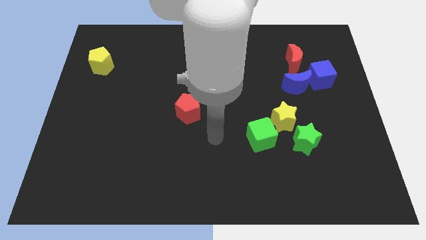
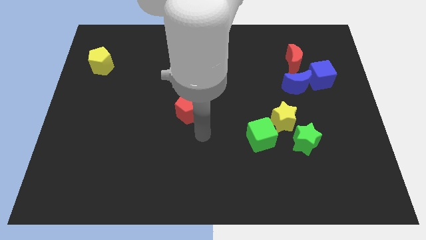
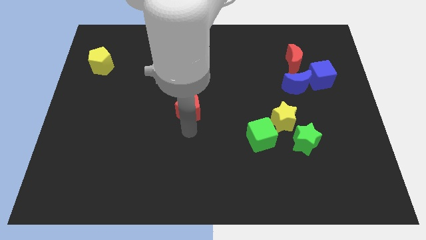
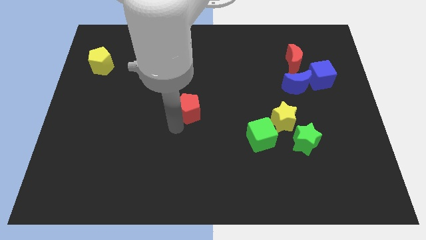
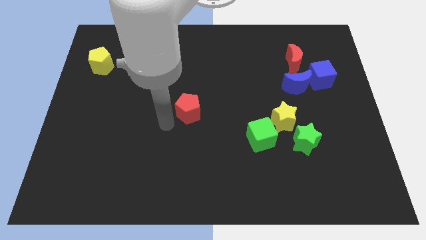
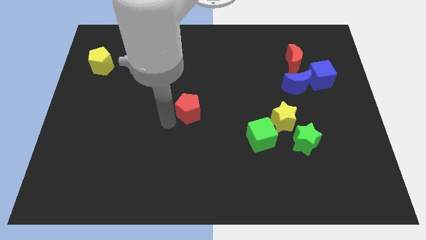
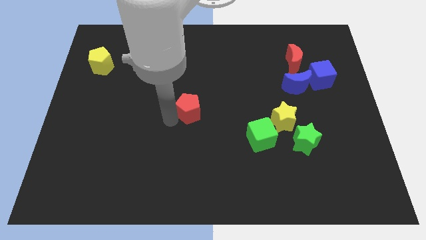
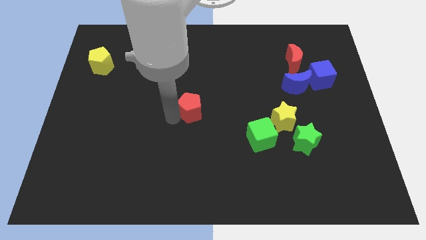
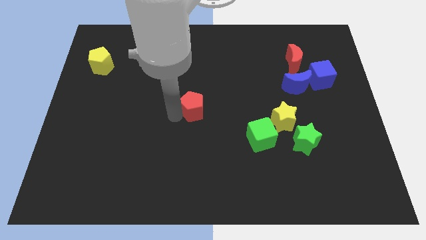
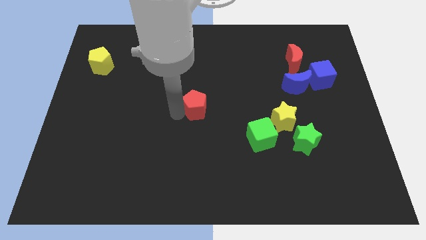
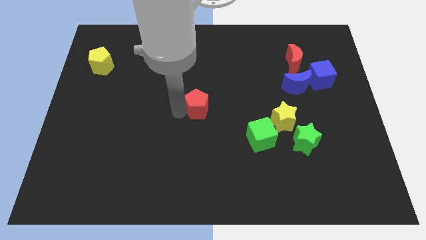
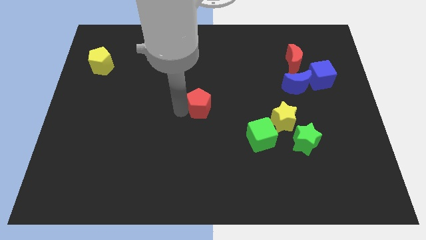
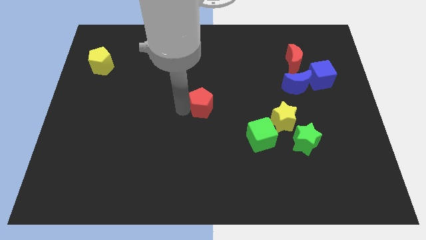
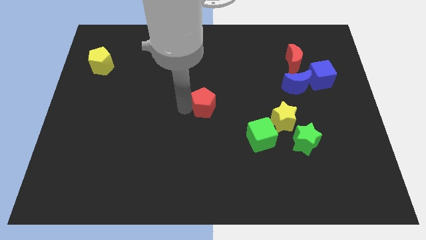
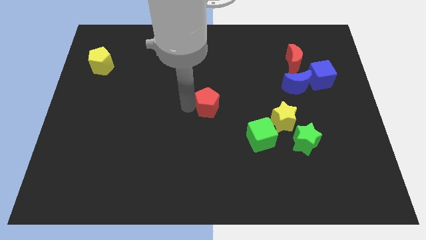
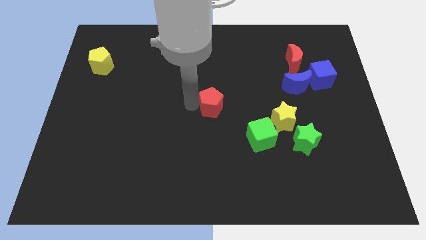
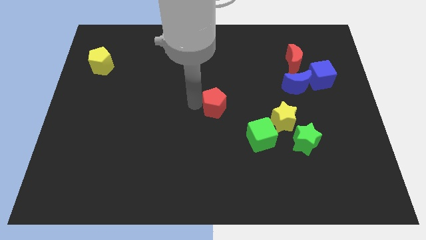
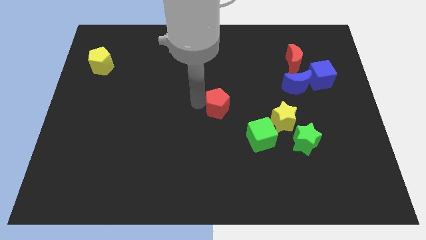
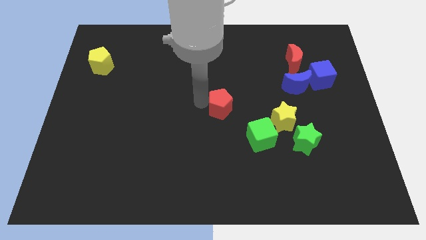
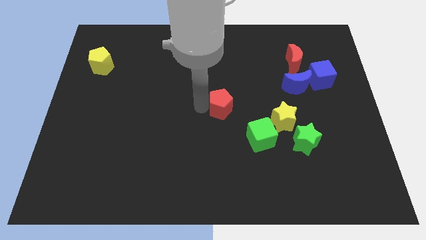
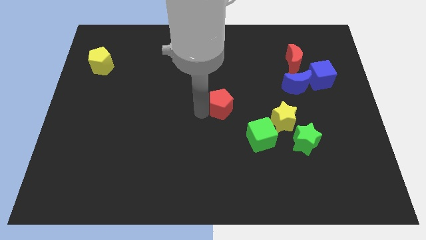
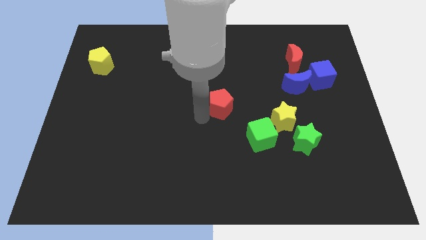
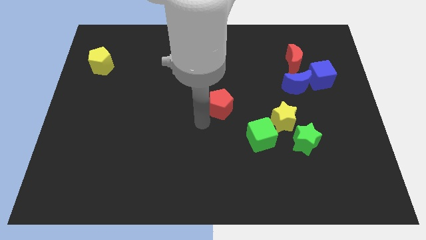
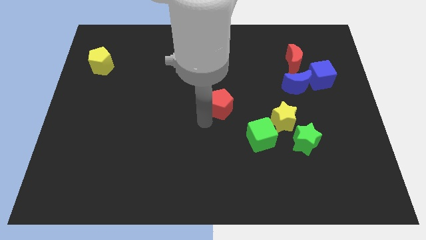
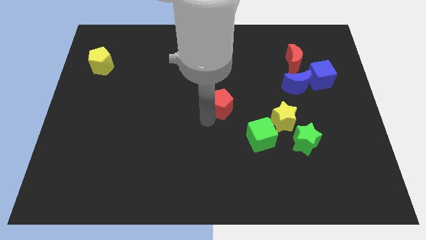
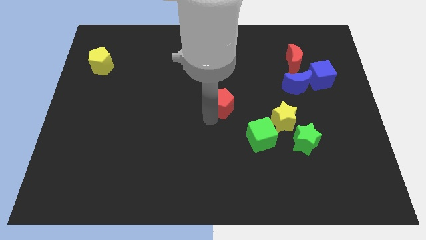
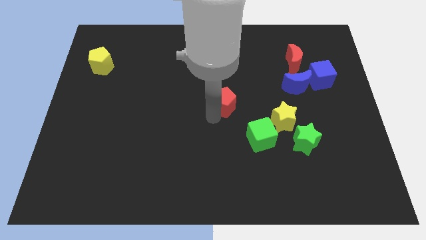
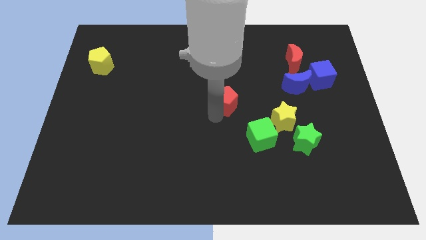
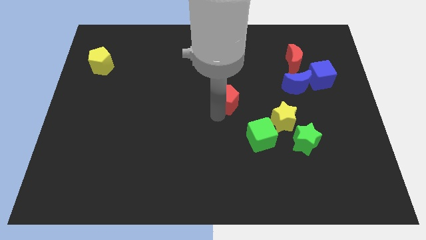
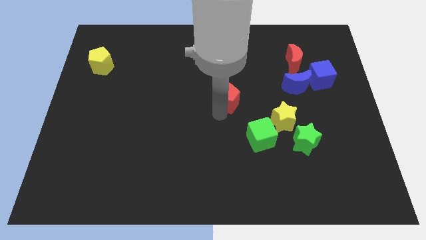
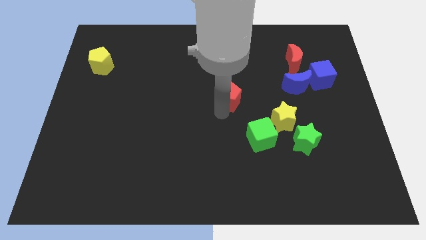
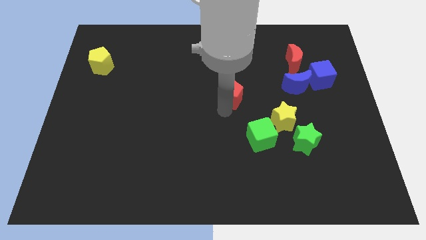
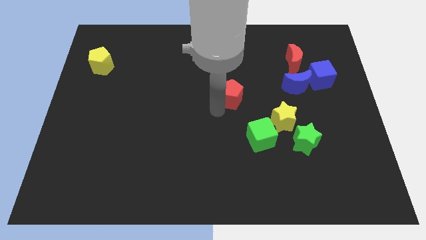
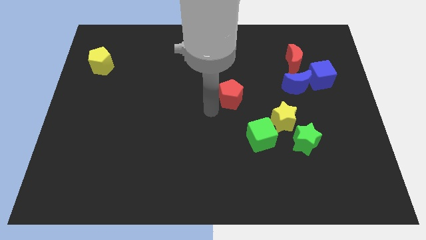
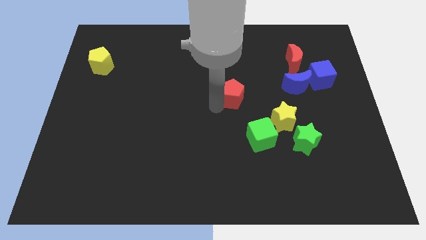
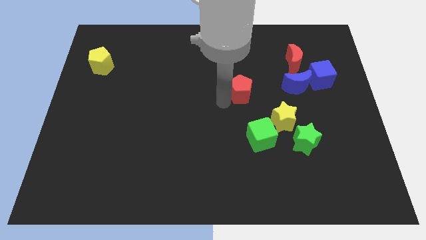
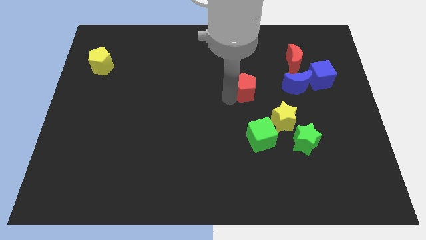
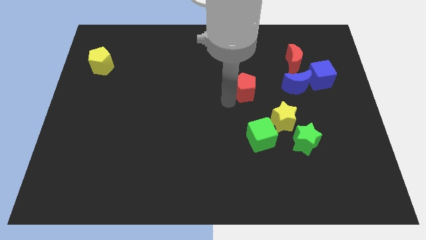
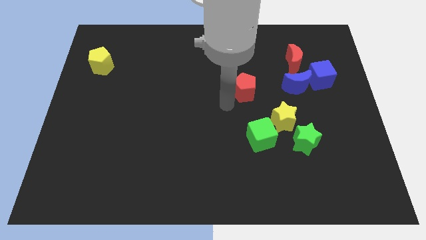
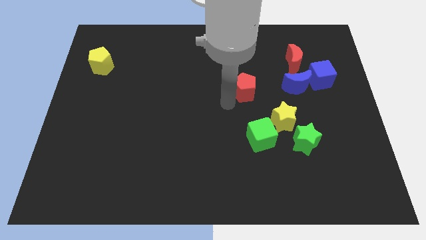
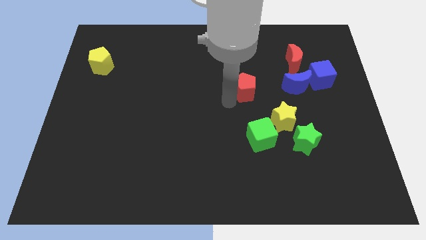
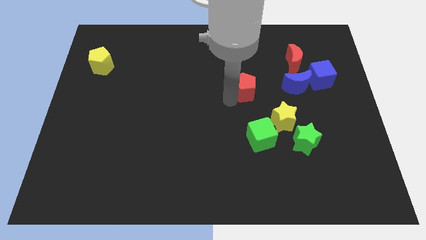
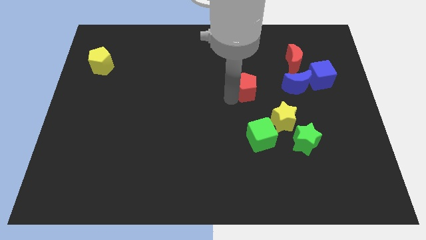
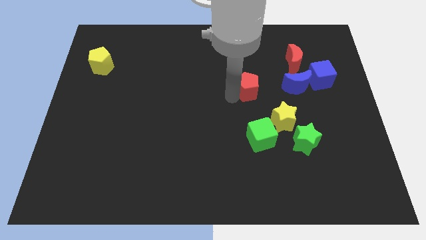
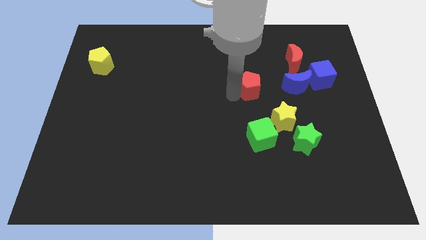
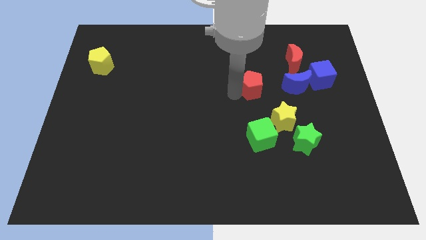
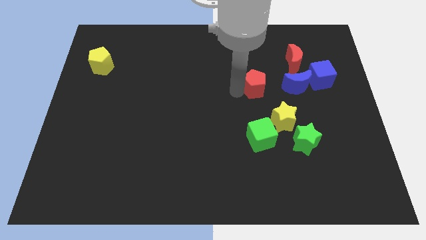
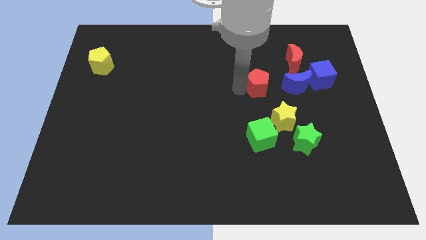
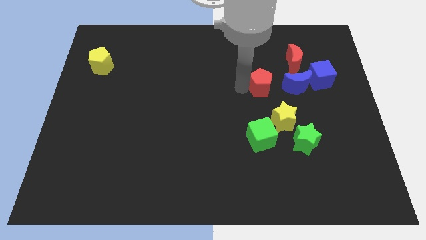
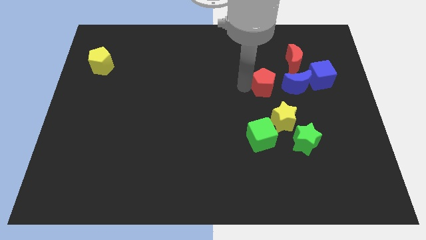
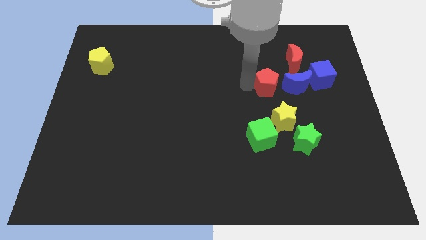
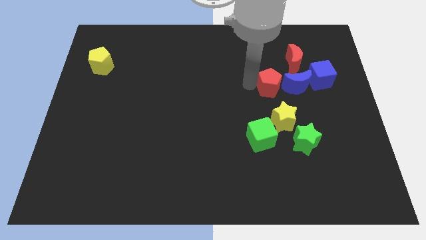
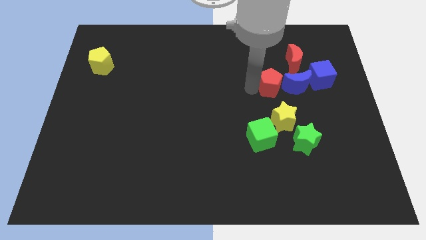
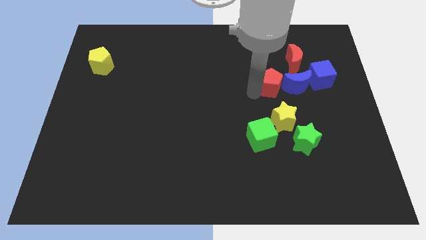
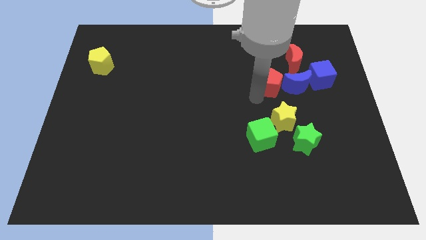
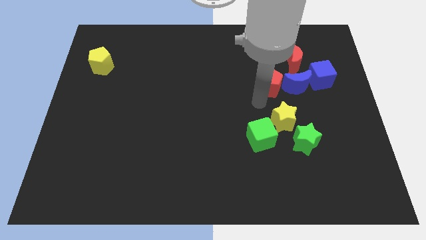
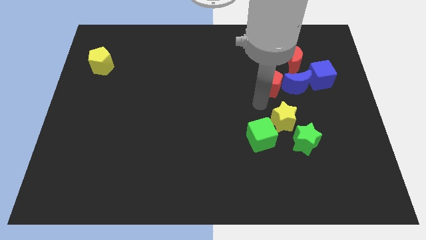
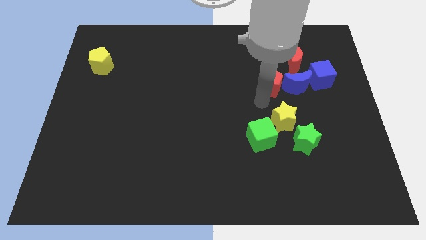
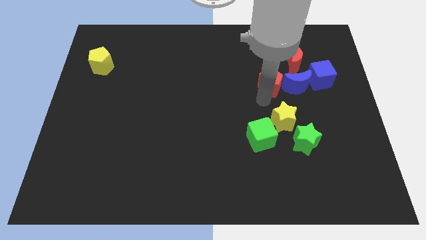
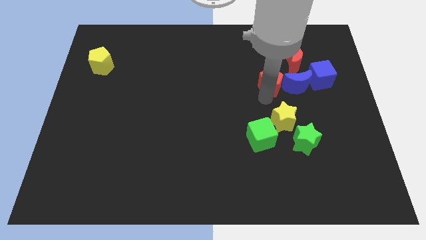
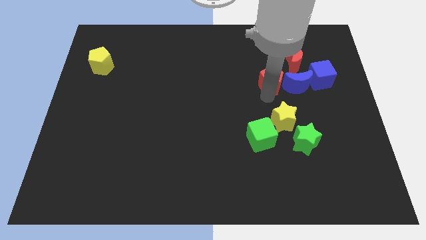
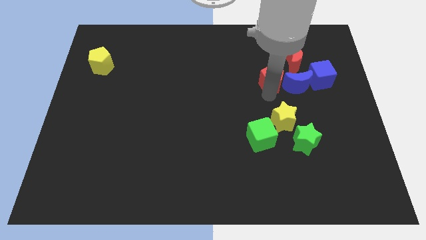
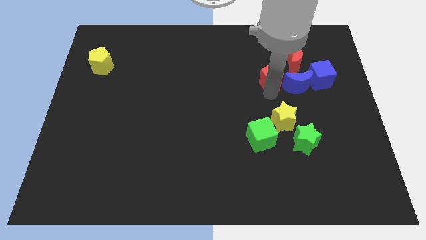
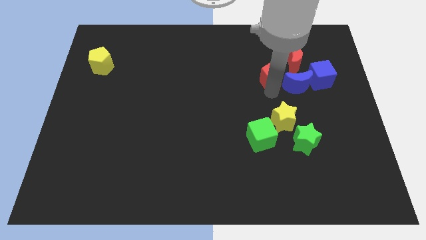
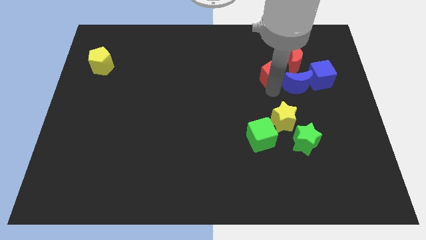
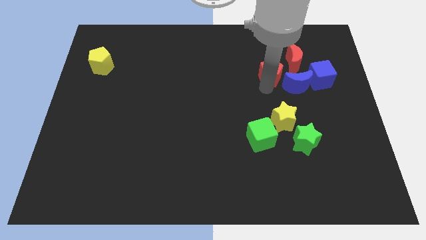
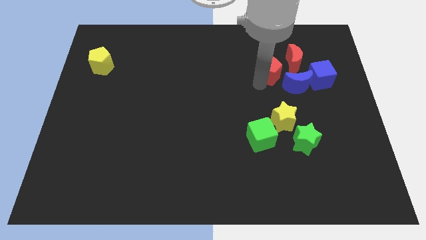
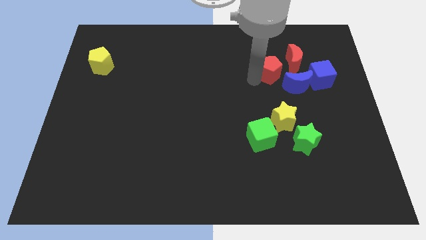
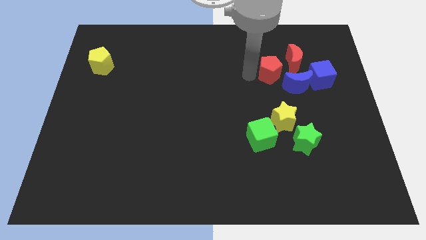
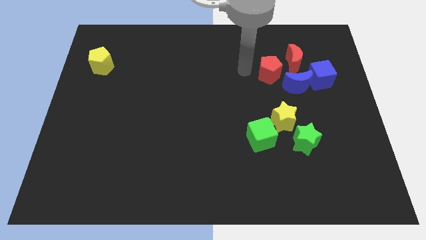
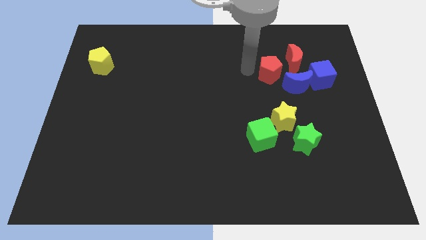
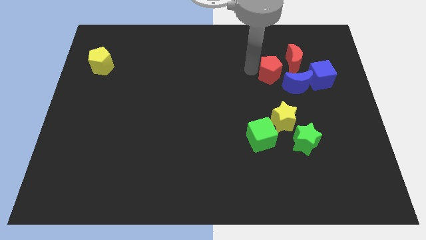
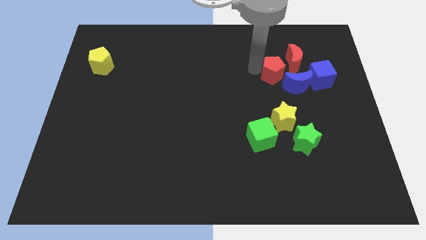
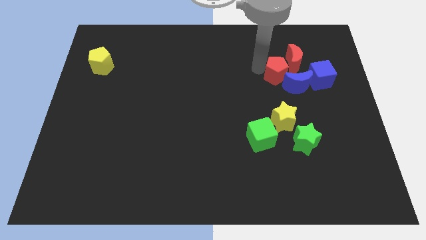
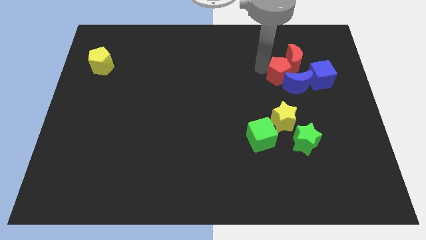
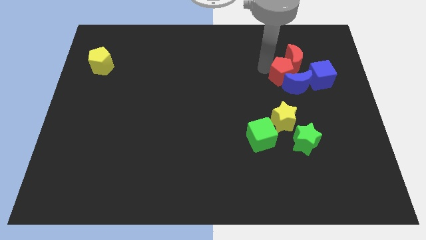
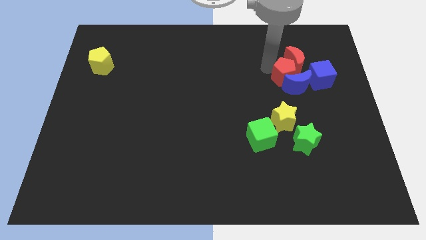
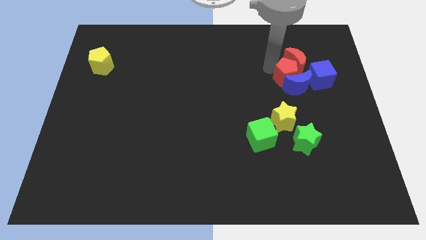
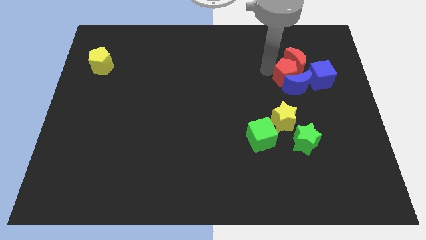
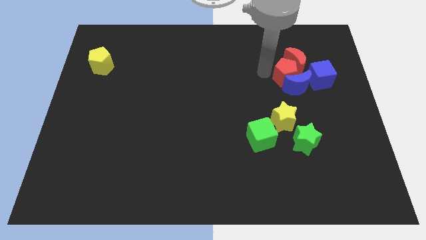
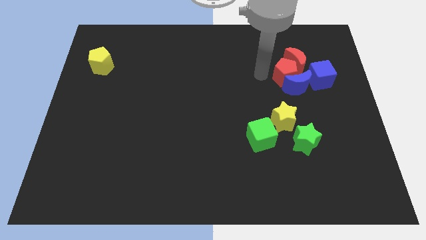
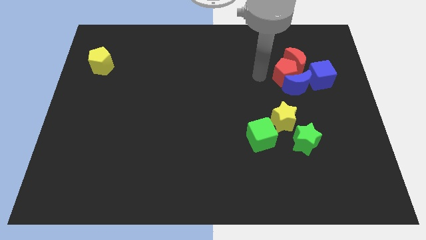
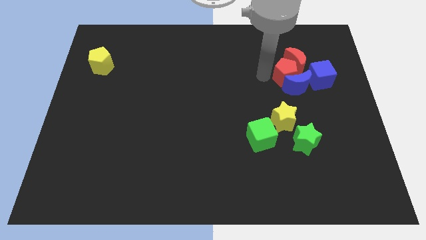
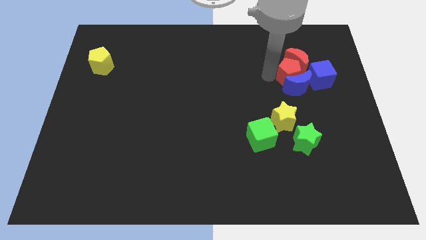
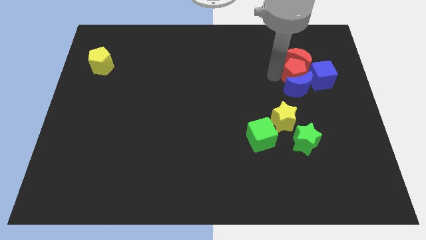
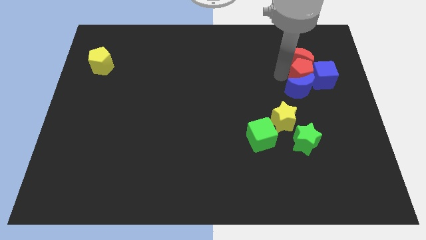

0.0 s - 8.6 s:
push the red pentagon to the blue cube
